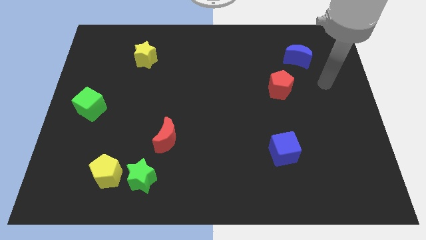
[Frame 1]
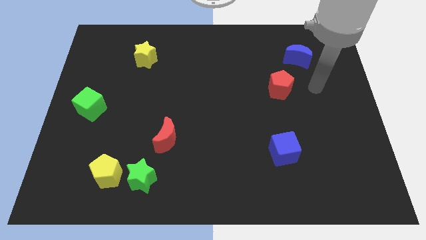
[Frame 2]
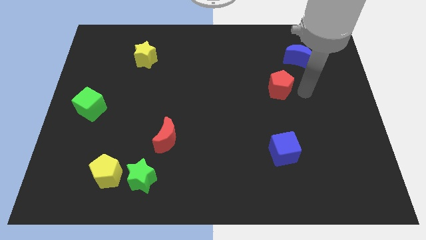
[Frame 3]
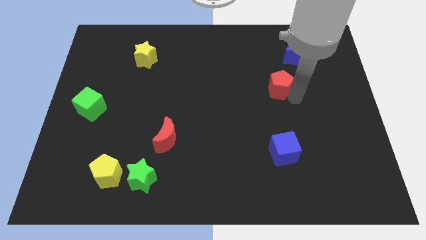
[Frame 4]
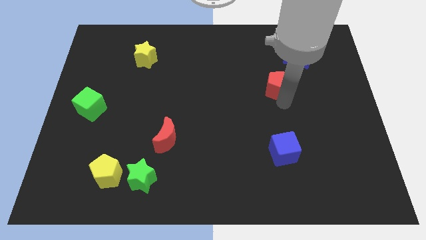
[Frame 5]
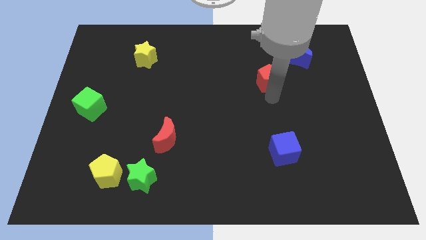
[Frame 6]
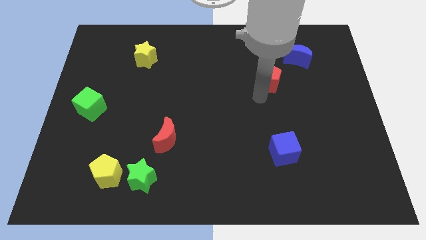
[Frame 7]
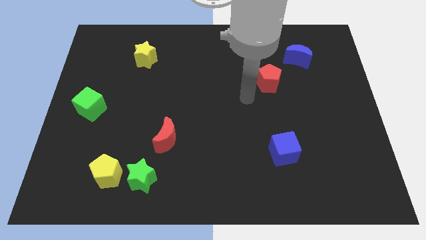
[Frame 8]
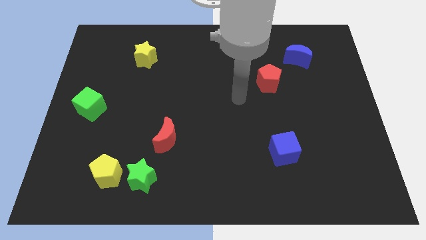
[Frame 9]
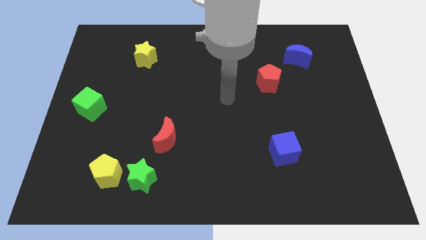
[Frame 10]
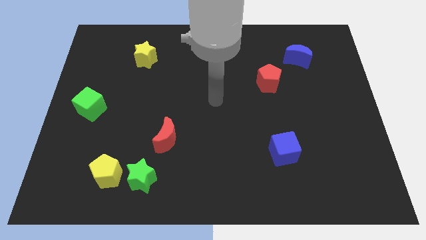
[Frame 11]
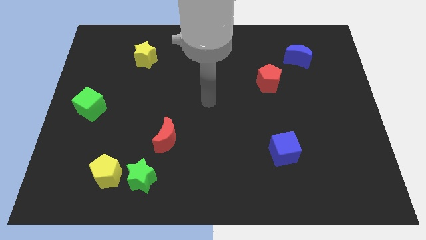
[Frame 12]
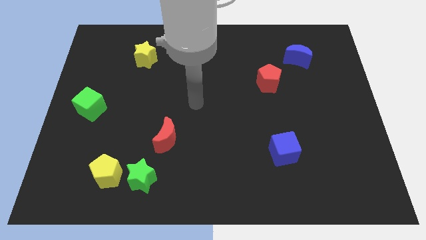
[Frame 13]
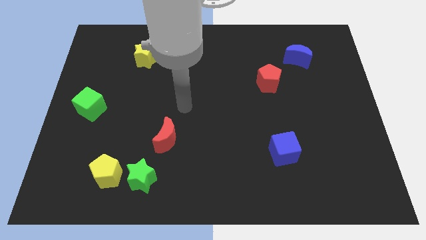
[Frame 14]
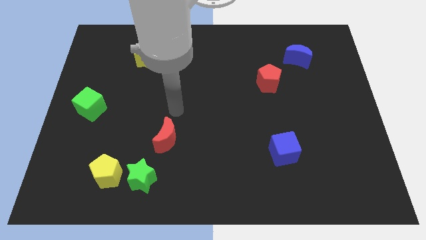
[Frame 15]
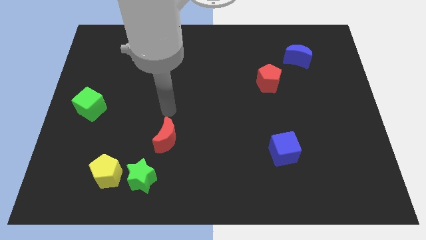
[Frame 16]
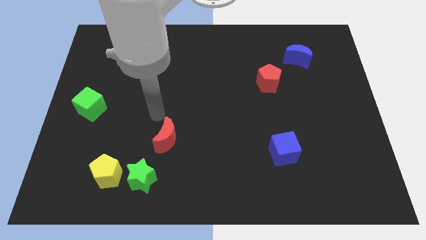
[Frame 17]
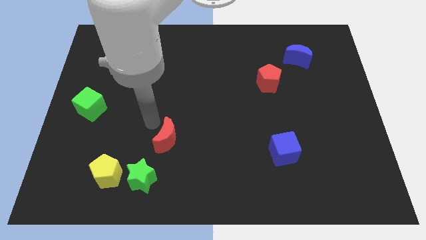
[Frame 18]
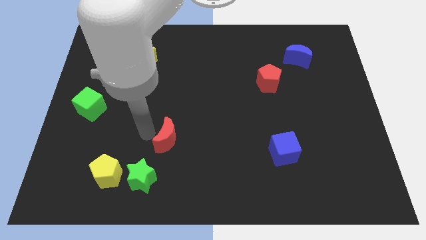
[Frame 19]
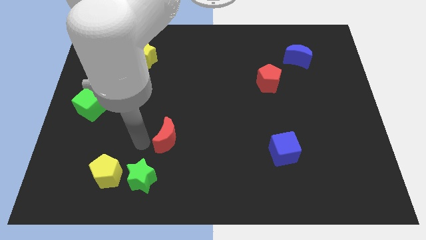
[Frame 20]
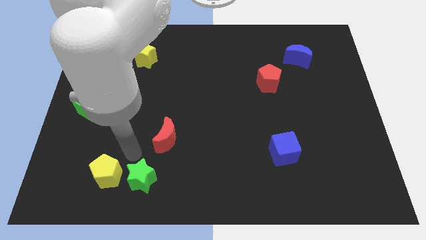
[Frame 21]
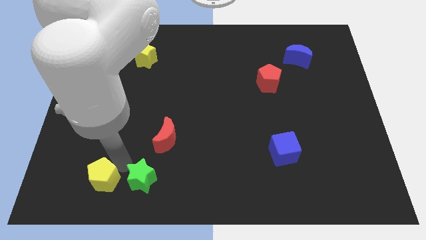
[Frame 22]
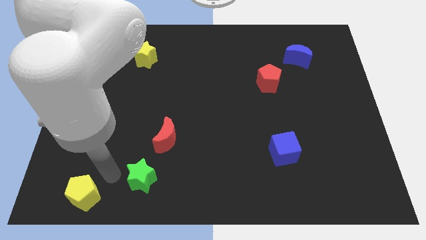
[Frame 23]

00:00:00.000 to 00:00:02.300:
pull the green star apart from the yellow pentagon

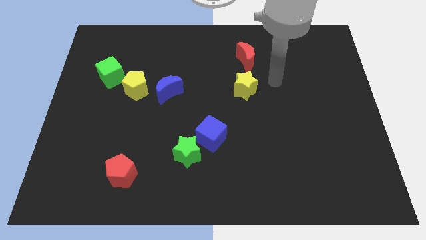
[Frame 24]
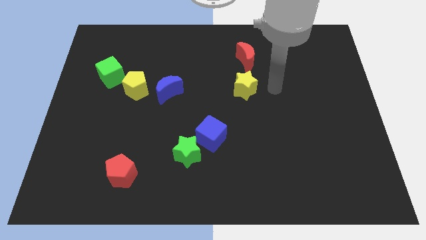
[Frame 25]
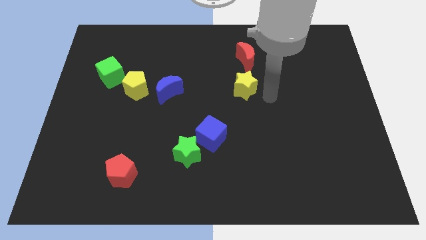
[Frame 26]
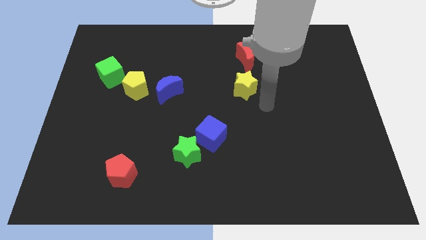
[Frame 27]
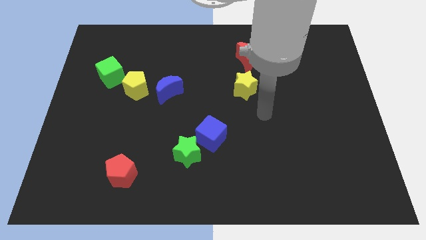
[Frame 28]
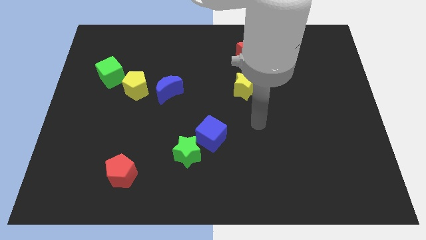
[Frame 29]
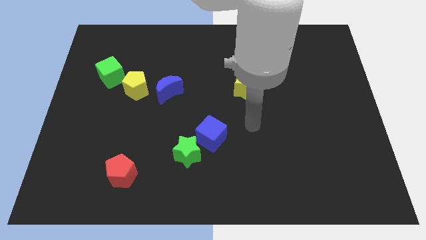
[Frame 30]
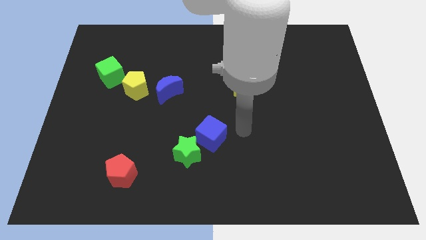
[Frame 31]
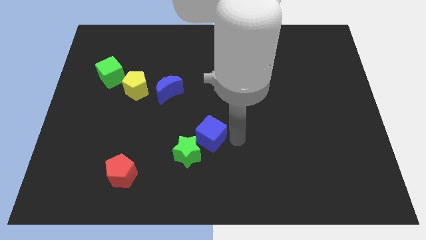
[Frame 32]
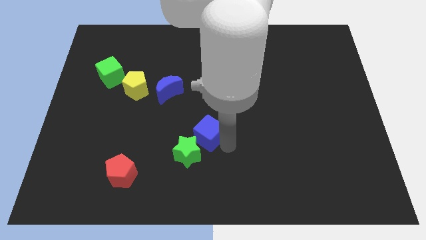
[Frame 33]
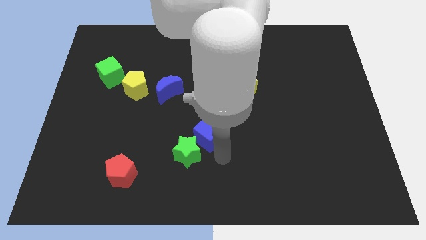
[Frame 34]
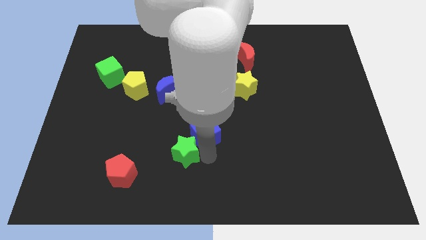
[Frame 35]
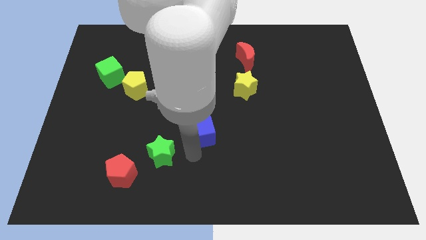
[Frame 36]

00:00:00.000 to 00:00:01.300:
pull the blue cube apart from the green star

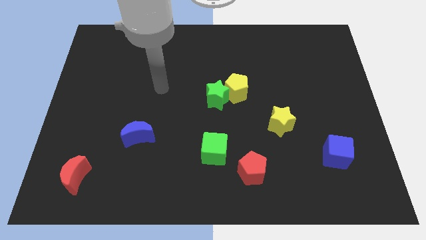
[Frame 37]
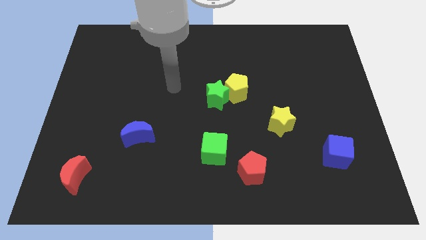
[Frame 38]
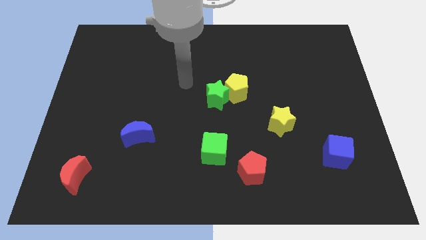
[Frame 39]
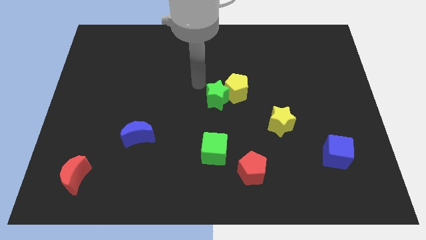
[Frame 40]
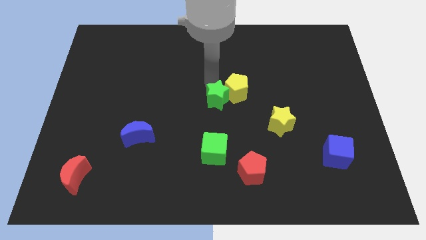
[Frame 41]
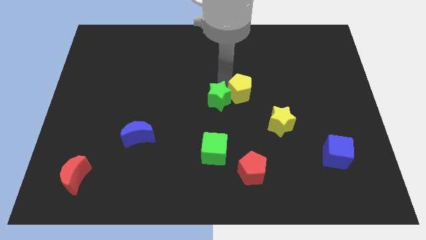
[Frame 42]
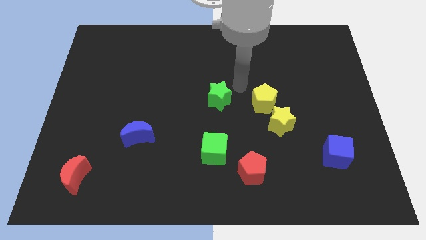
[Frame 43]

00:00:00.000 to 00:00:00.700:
move the green star away from the yellow pentagon

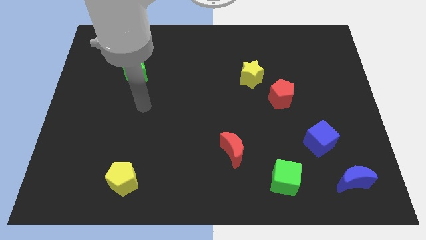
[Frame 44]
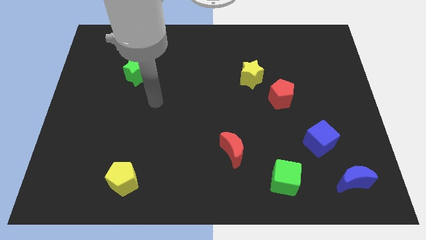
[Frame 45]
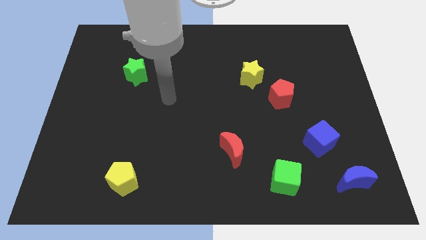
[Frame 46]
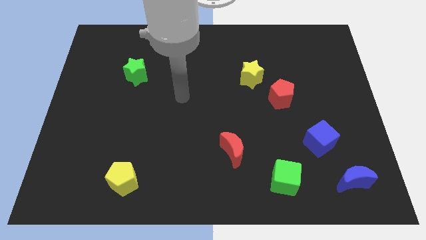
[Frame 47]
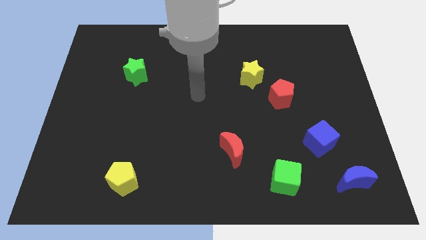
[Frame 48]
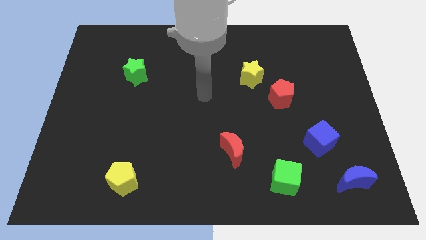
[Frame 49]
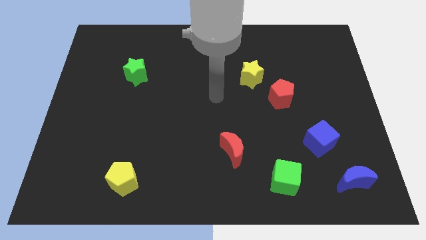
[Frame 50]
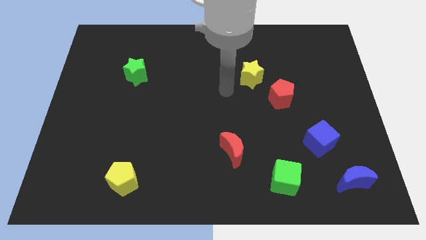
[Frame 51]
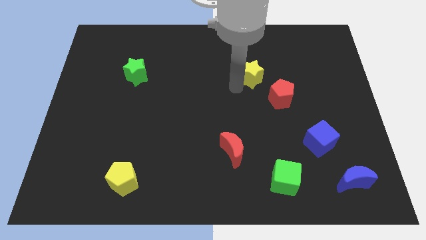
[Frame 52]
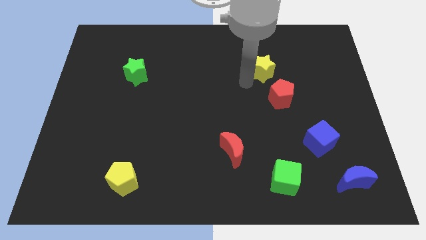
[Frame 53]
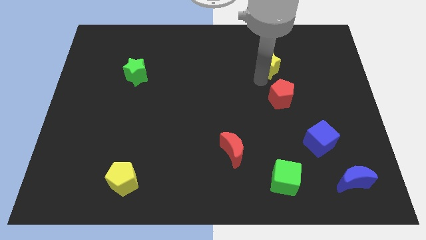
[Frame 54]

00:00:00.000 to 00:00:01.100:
pull the red pentagon apart from the yellow star

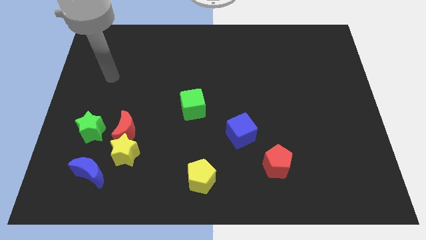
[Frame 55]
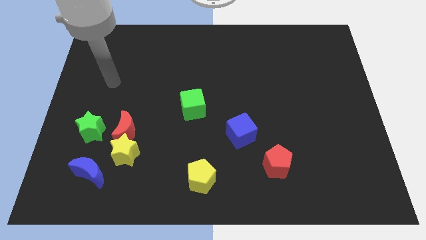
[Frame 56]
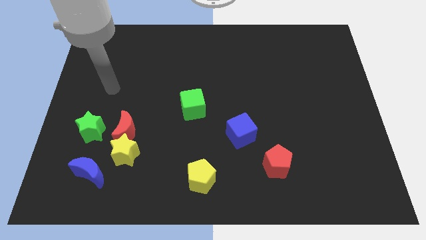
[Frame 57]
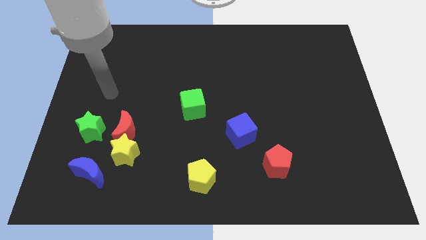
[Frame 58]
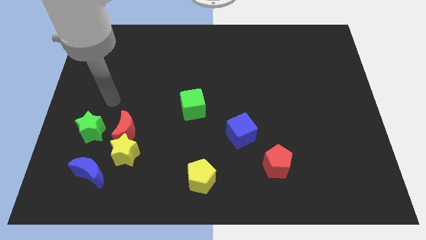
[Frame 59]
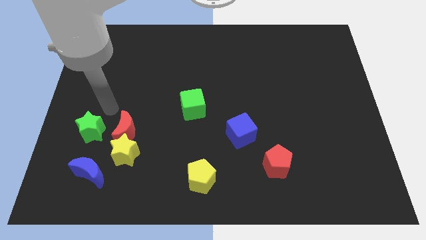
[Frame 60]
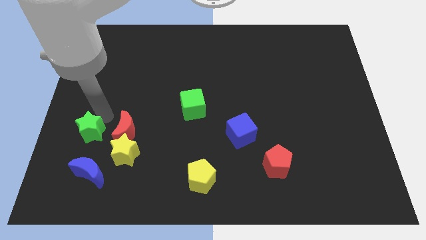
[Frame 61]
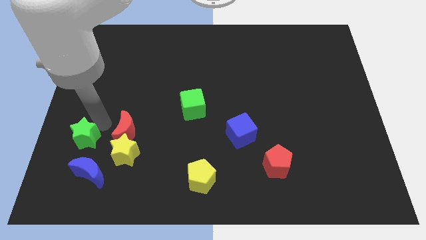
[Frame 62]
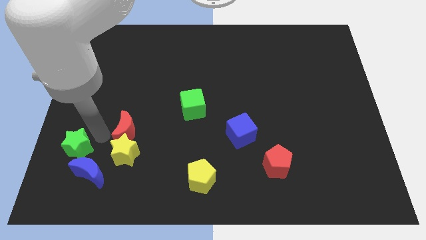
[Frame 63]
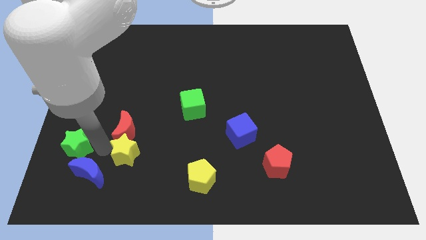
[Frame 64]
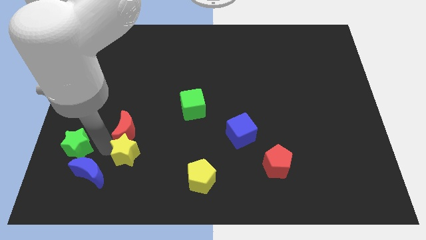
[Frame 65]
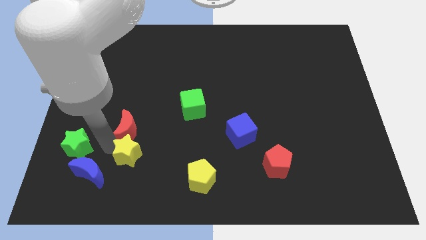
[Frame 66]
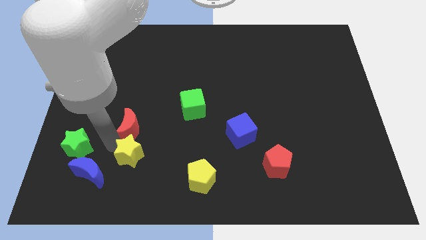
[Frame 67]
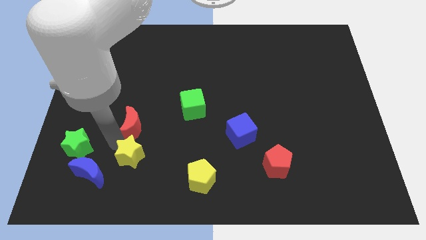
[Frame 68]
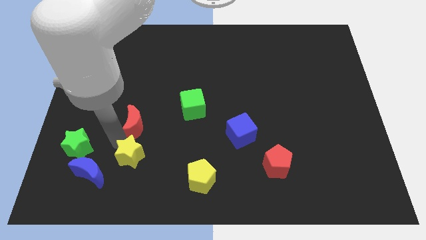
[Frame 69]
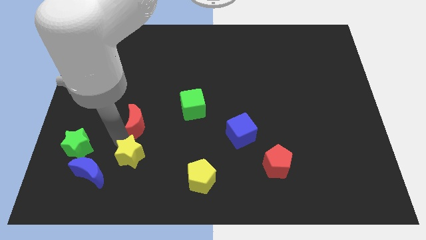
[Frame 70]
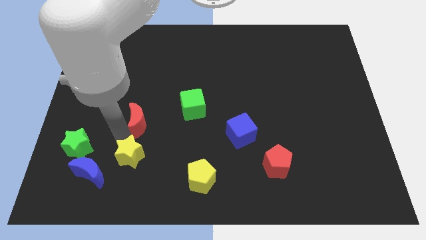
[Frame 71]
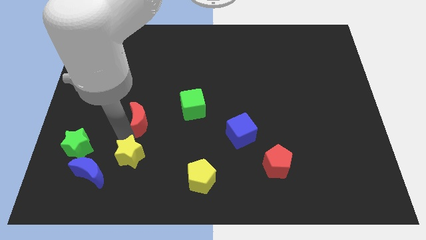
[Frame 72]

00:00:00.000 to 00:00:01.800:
pull the red moon apart from the yellow star and green star

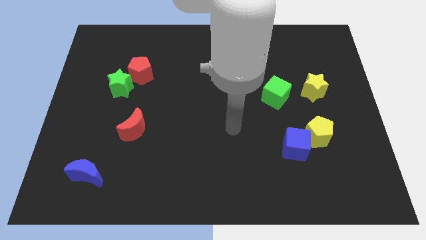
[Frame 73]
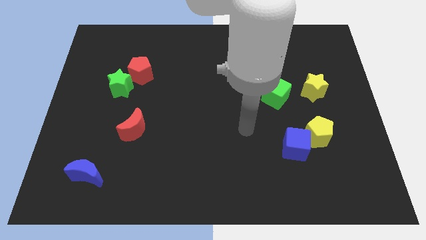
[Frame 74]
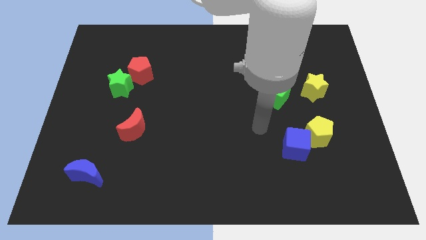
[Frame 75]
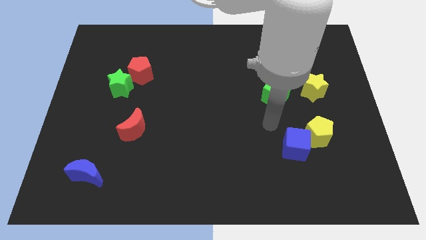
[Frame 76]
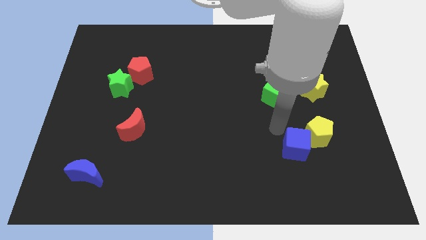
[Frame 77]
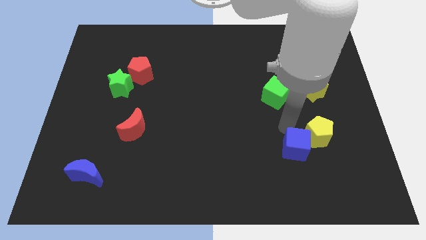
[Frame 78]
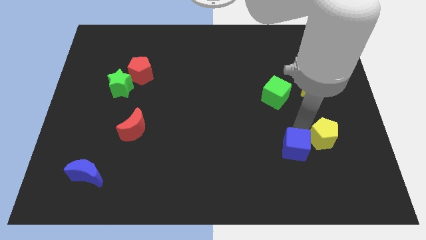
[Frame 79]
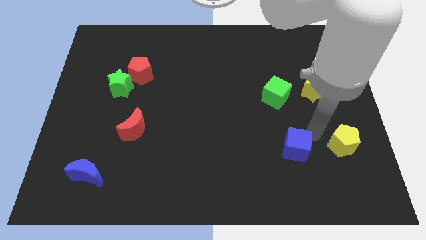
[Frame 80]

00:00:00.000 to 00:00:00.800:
pull the blue cube apart from the yellow pentagon

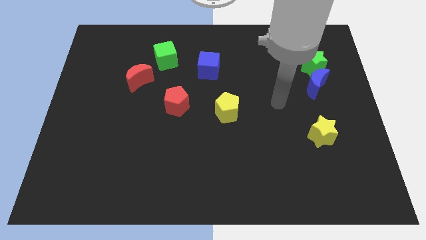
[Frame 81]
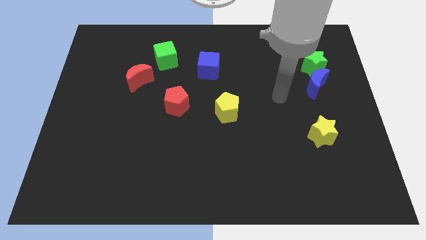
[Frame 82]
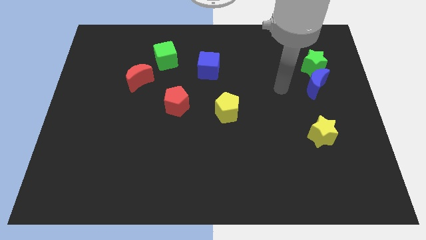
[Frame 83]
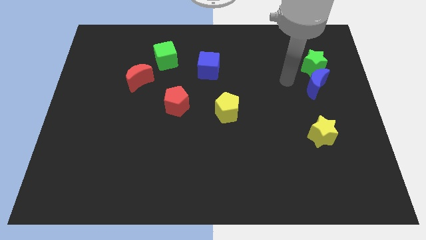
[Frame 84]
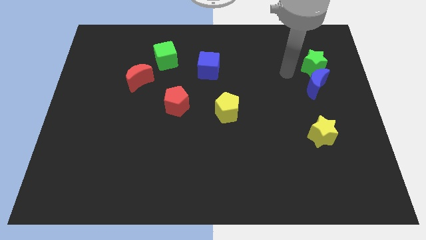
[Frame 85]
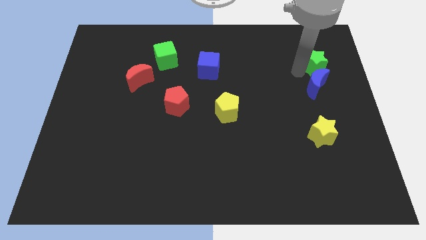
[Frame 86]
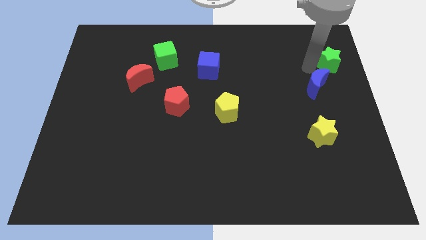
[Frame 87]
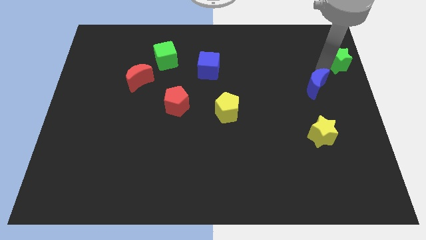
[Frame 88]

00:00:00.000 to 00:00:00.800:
move the blue moon away from the green star

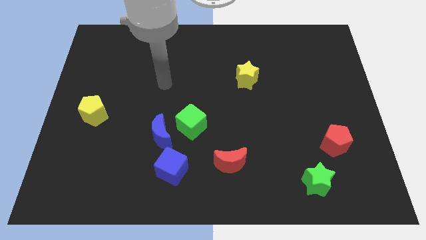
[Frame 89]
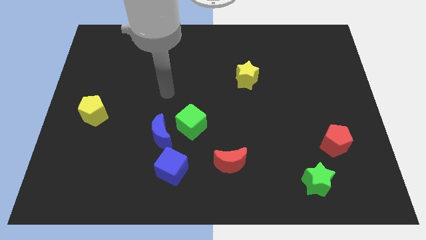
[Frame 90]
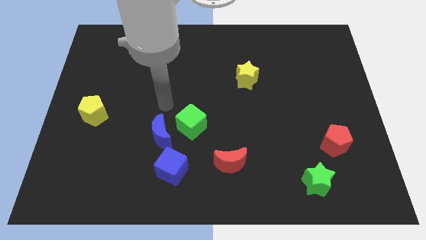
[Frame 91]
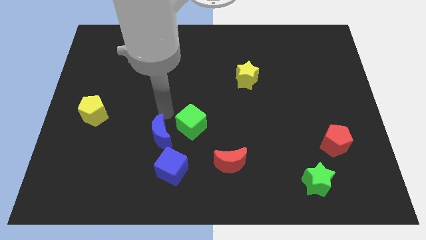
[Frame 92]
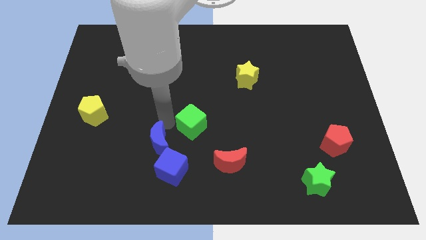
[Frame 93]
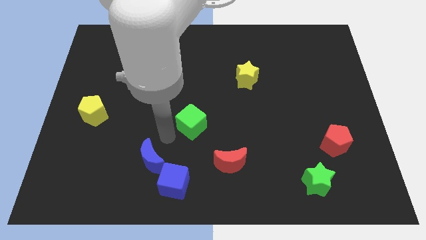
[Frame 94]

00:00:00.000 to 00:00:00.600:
pull the green cube apart from the blue moon
